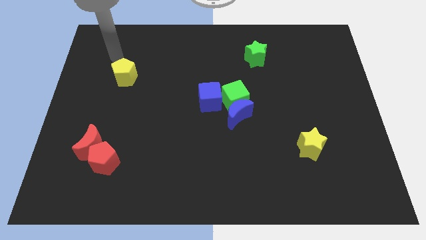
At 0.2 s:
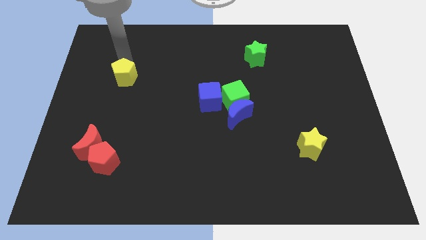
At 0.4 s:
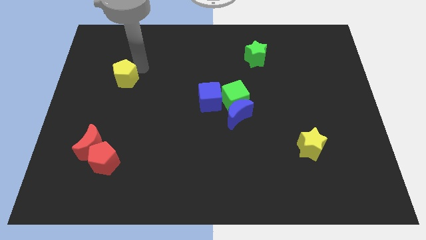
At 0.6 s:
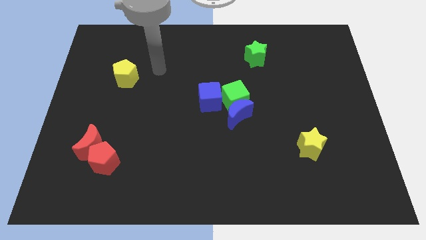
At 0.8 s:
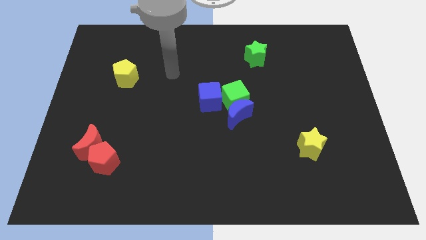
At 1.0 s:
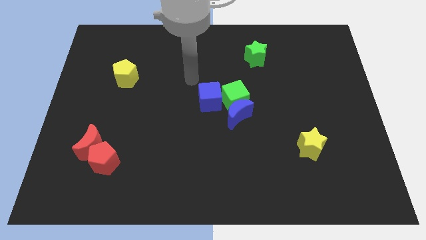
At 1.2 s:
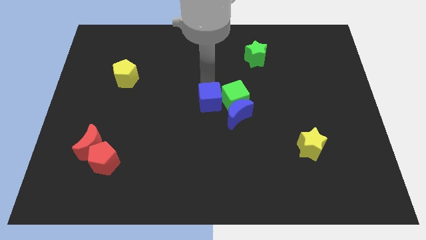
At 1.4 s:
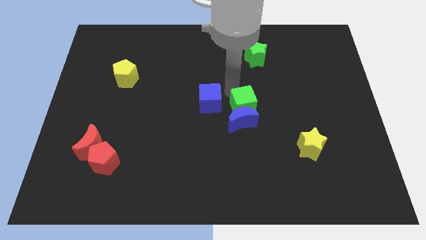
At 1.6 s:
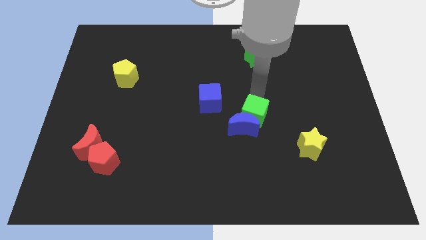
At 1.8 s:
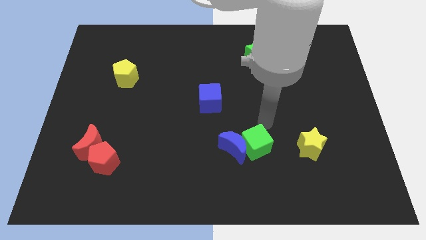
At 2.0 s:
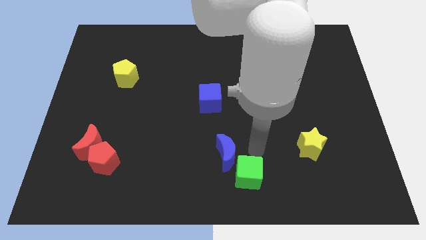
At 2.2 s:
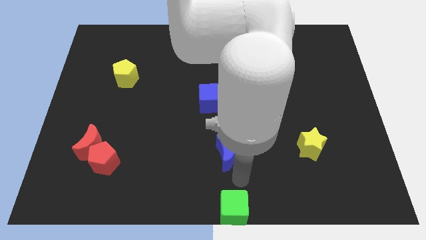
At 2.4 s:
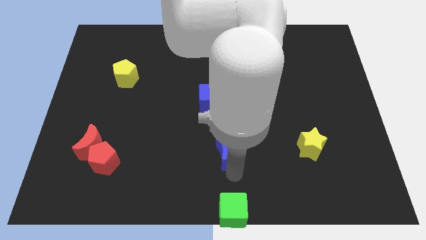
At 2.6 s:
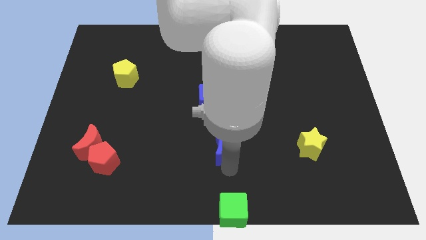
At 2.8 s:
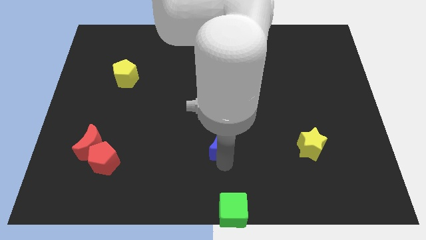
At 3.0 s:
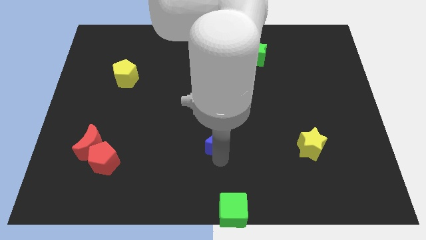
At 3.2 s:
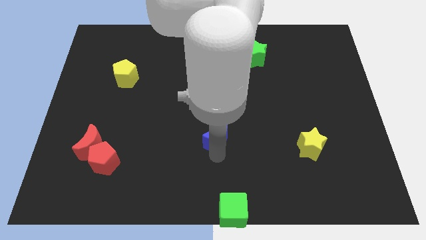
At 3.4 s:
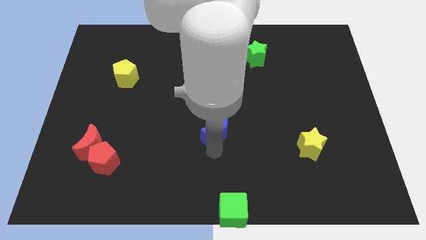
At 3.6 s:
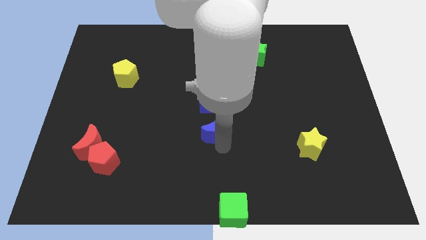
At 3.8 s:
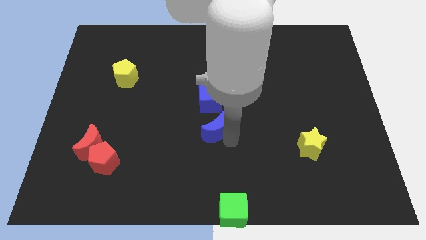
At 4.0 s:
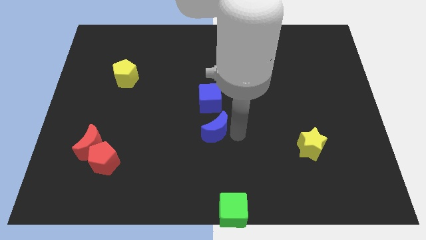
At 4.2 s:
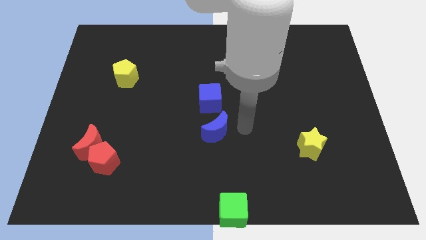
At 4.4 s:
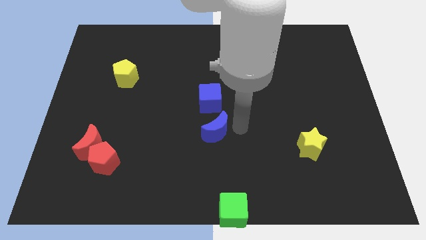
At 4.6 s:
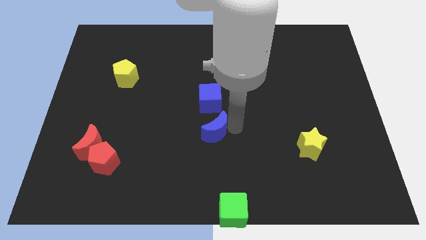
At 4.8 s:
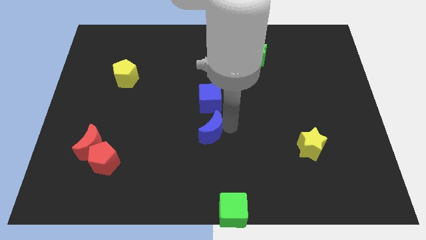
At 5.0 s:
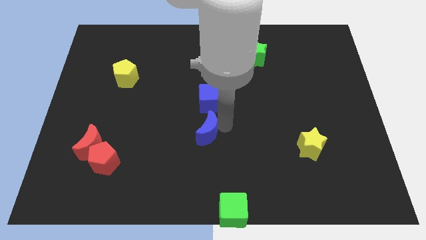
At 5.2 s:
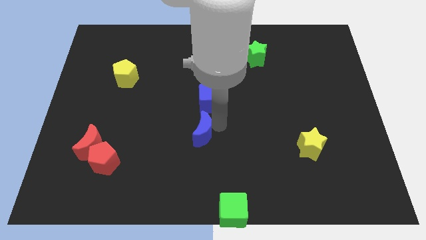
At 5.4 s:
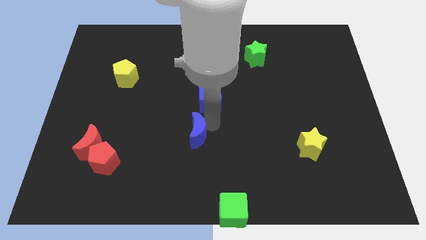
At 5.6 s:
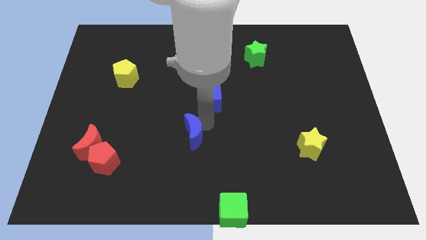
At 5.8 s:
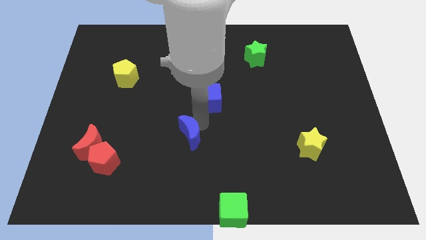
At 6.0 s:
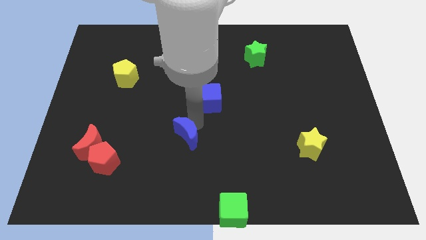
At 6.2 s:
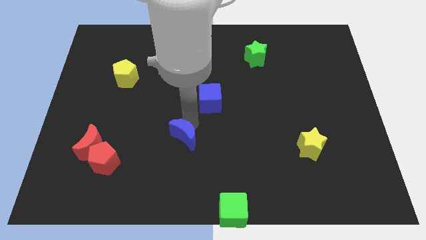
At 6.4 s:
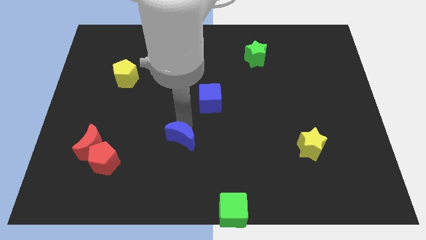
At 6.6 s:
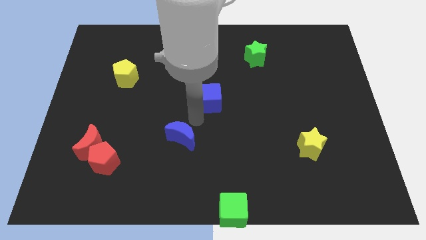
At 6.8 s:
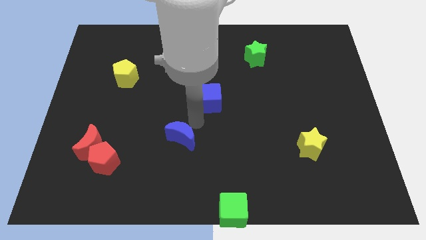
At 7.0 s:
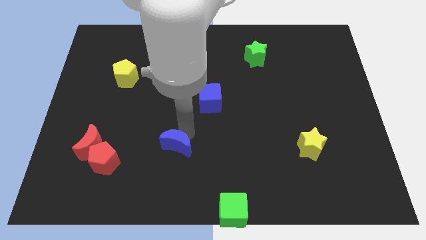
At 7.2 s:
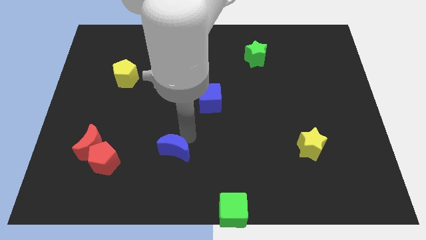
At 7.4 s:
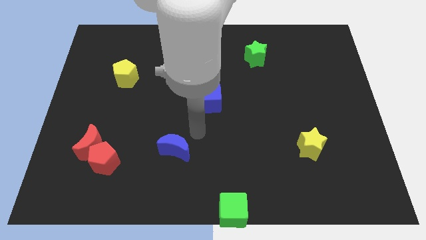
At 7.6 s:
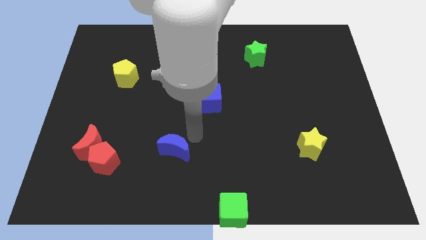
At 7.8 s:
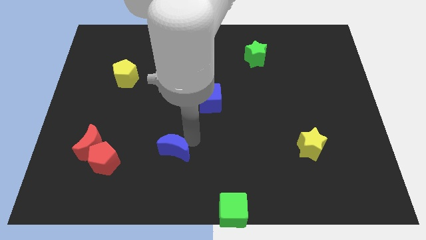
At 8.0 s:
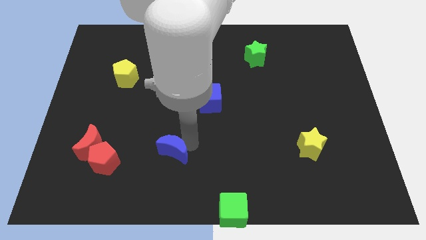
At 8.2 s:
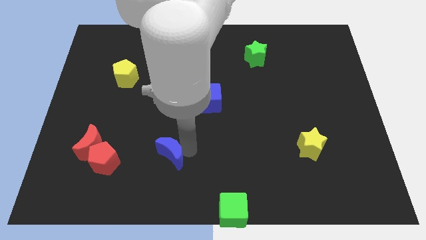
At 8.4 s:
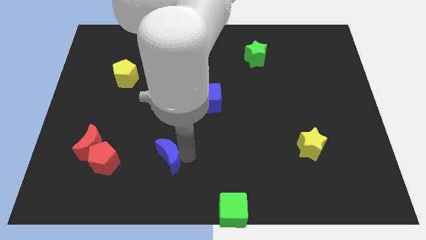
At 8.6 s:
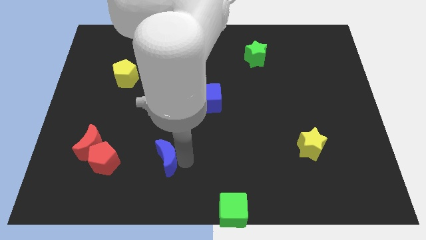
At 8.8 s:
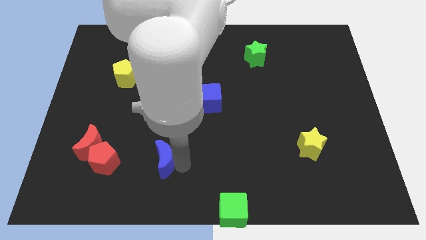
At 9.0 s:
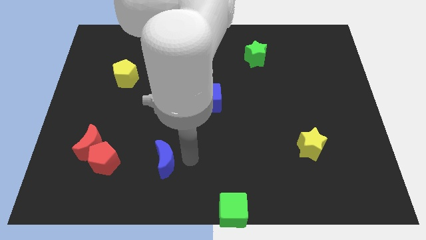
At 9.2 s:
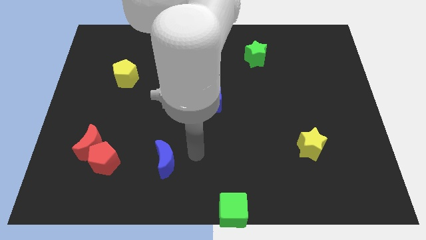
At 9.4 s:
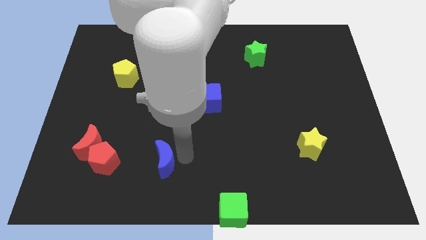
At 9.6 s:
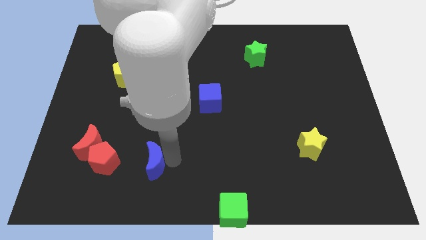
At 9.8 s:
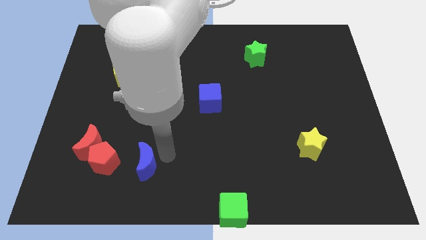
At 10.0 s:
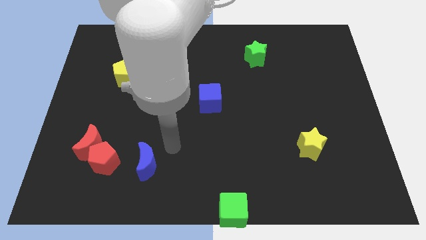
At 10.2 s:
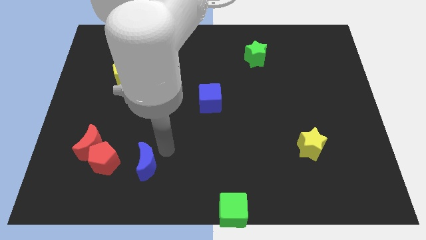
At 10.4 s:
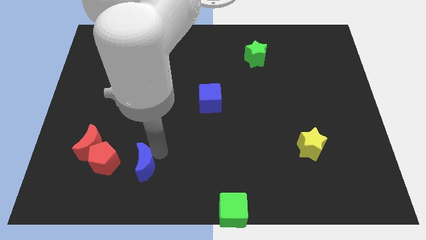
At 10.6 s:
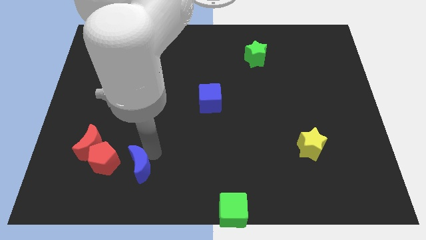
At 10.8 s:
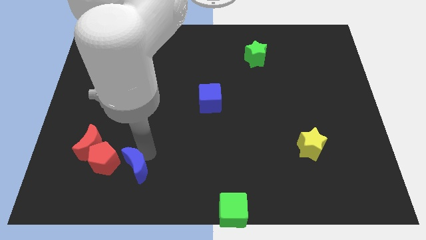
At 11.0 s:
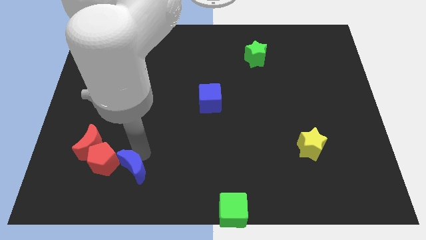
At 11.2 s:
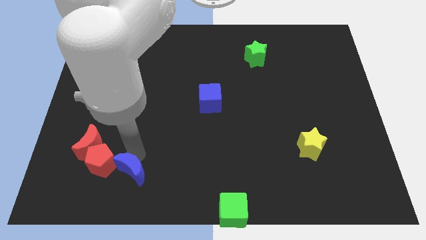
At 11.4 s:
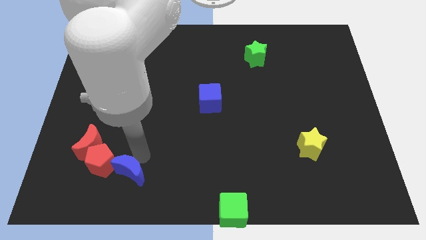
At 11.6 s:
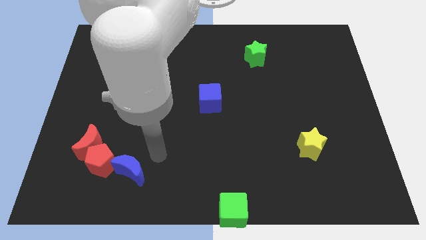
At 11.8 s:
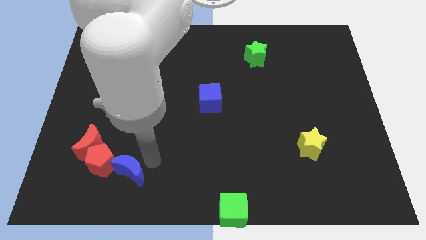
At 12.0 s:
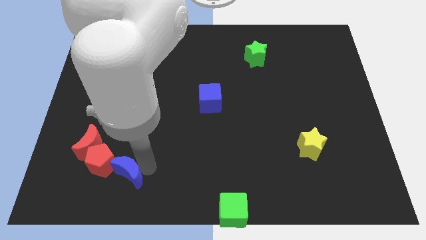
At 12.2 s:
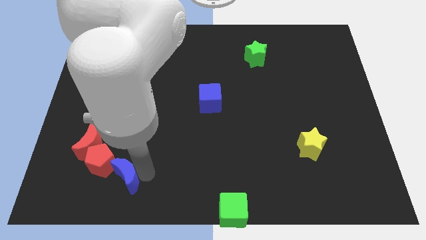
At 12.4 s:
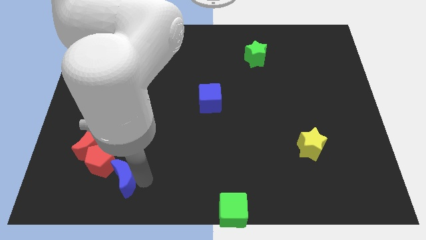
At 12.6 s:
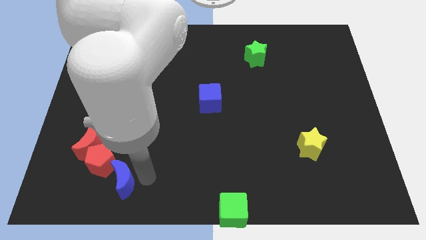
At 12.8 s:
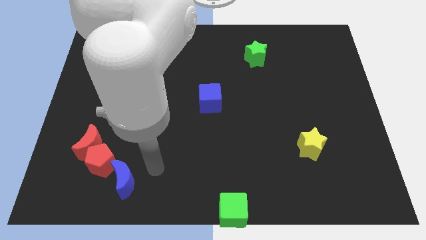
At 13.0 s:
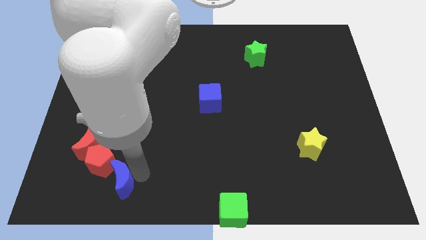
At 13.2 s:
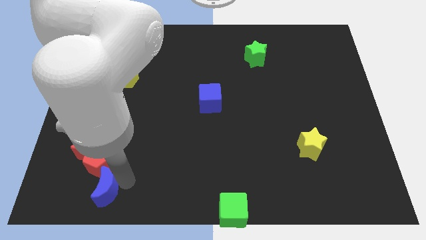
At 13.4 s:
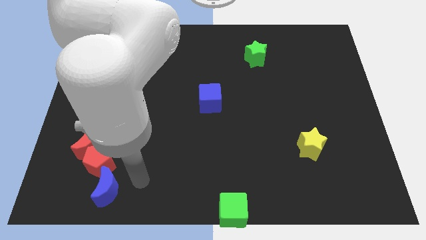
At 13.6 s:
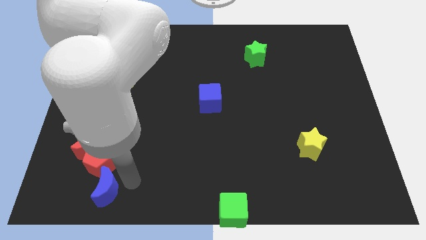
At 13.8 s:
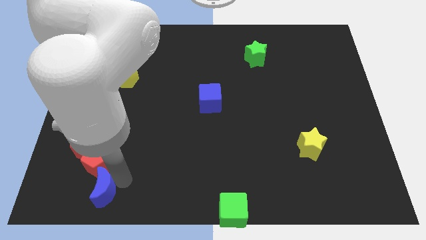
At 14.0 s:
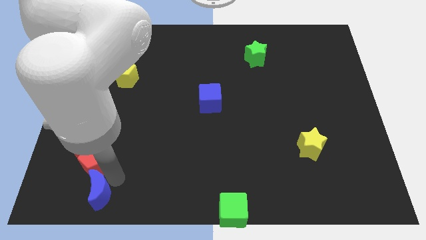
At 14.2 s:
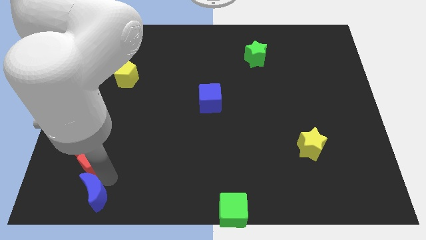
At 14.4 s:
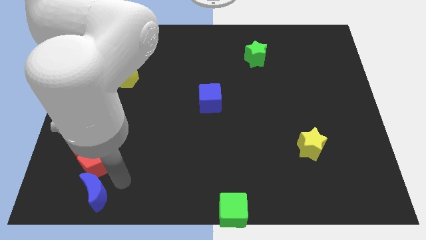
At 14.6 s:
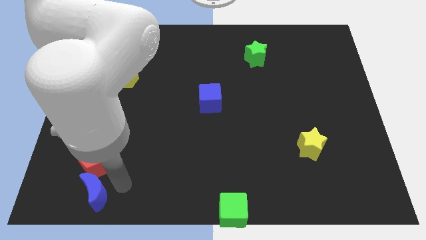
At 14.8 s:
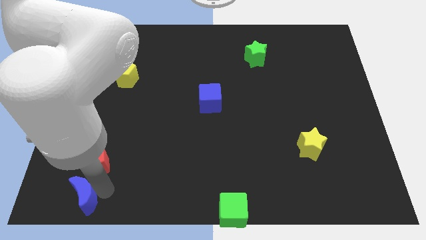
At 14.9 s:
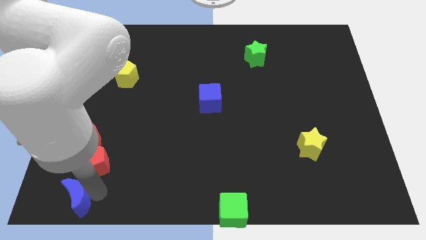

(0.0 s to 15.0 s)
put the blue moon to the bottom left corner
